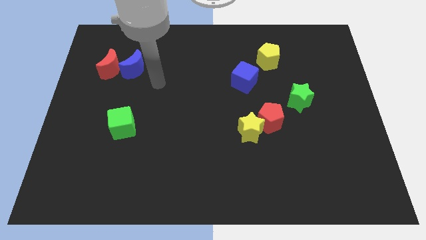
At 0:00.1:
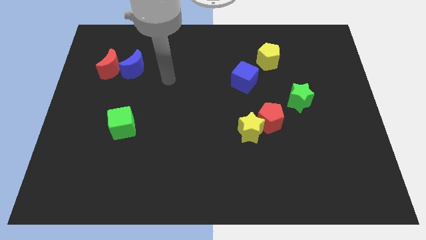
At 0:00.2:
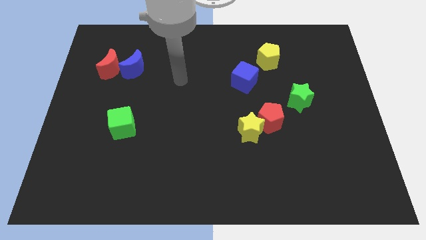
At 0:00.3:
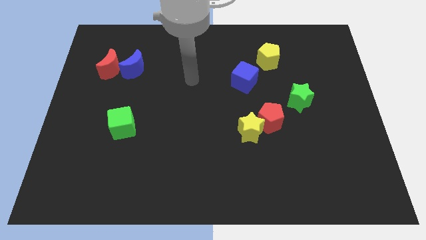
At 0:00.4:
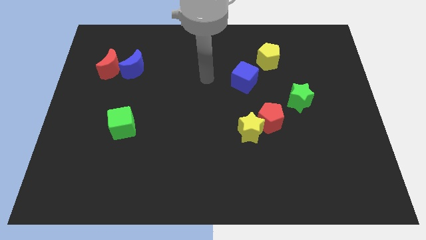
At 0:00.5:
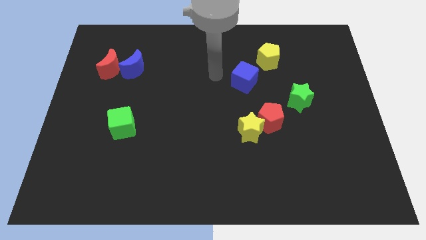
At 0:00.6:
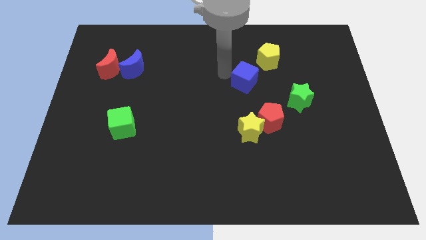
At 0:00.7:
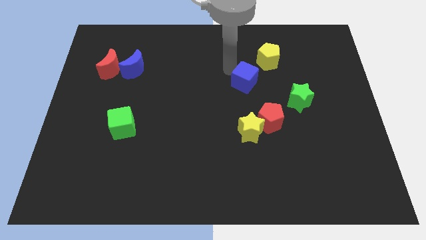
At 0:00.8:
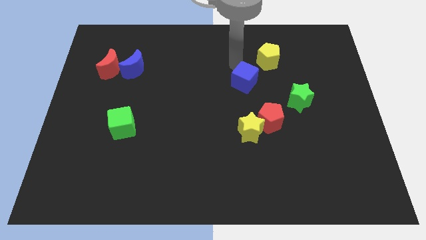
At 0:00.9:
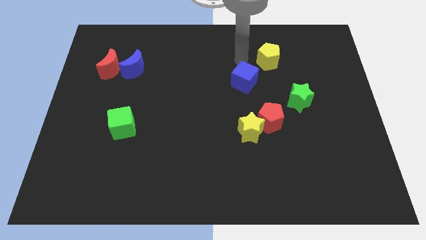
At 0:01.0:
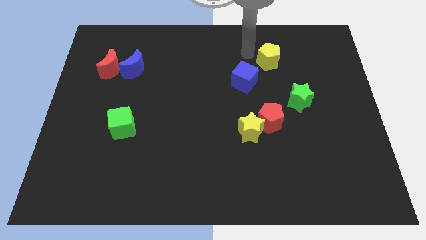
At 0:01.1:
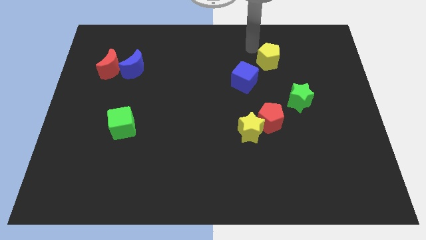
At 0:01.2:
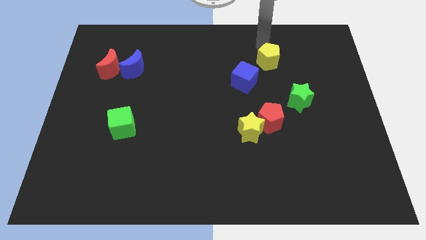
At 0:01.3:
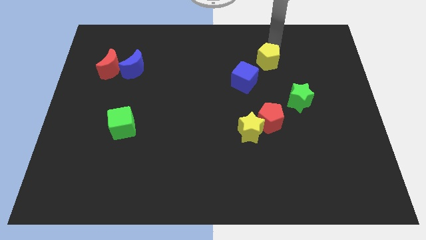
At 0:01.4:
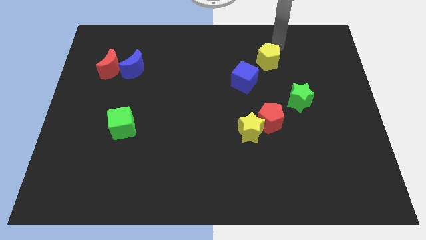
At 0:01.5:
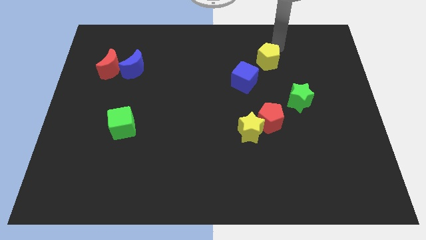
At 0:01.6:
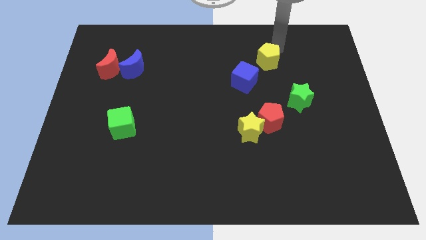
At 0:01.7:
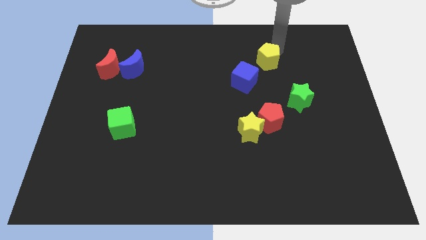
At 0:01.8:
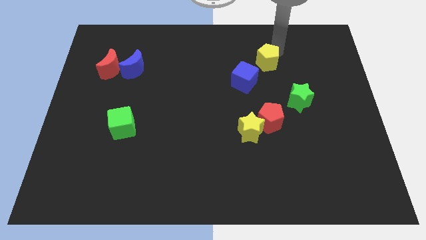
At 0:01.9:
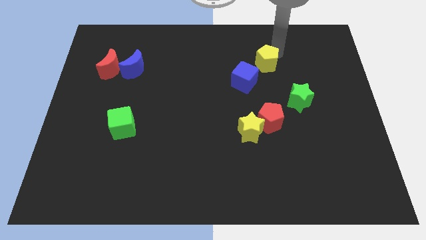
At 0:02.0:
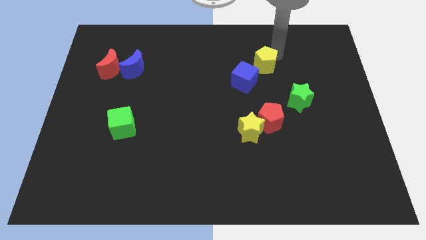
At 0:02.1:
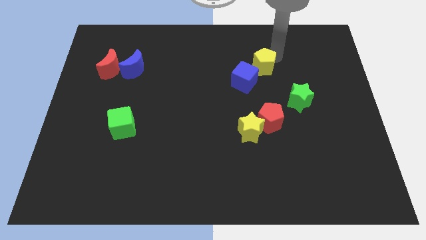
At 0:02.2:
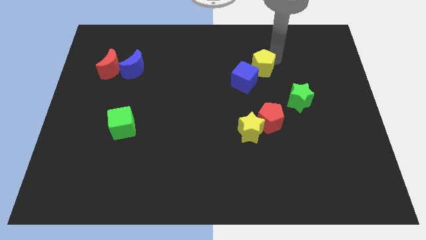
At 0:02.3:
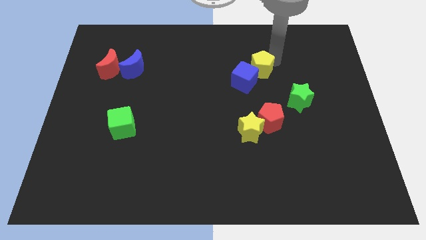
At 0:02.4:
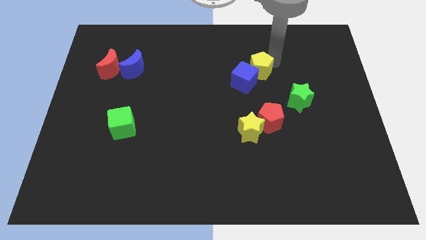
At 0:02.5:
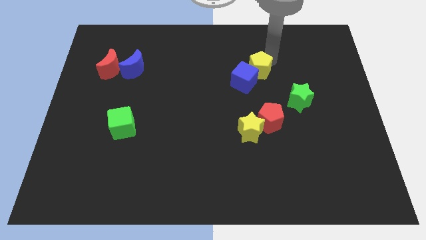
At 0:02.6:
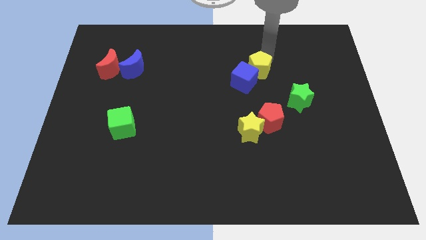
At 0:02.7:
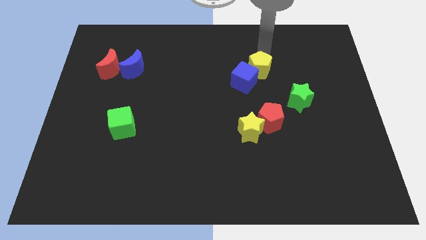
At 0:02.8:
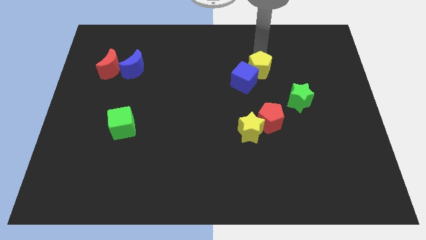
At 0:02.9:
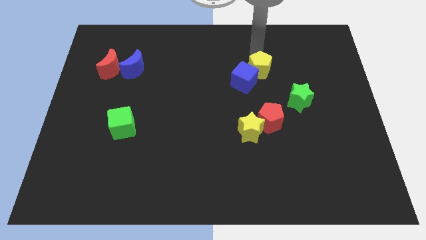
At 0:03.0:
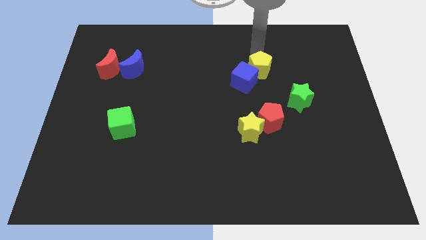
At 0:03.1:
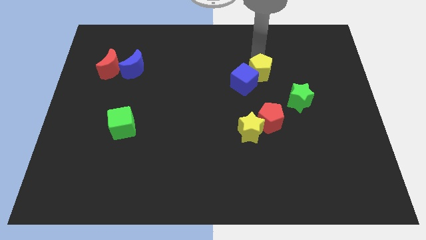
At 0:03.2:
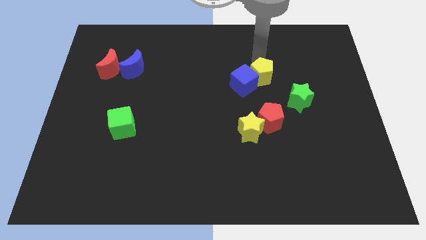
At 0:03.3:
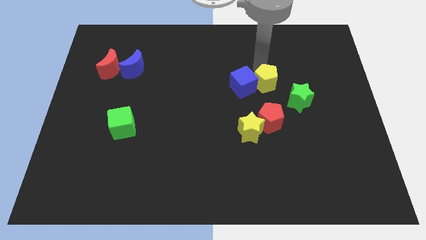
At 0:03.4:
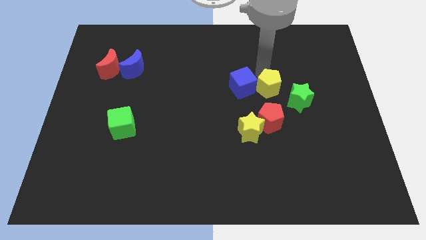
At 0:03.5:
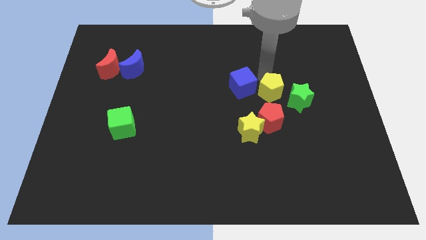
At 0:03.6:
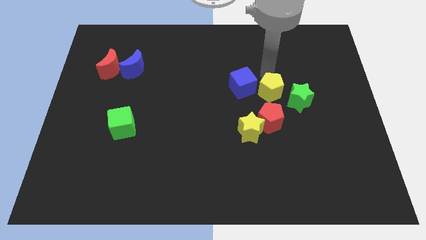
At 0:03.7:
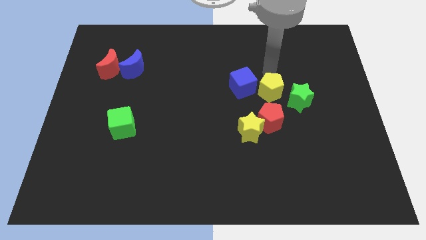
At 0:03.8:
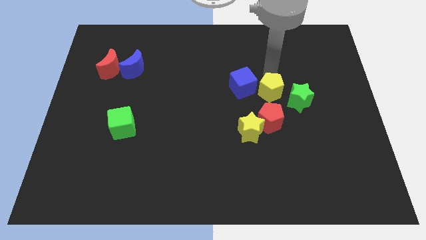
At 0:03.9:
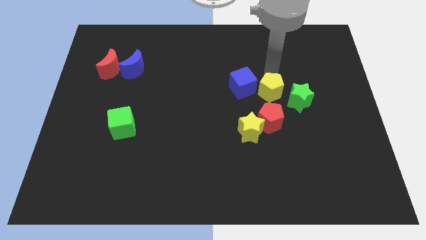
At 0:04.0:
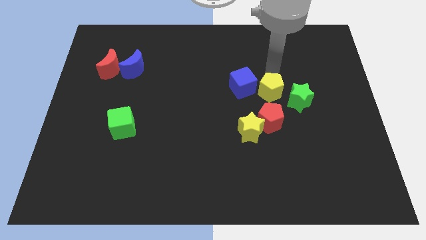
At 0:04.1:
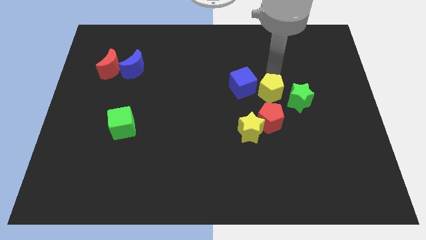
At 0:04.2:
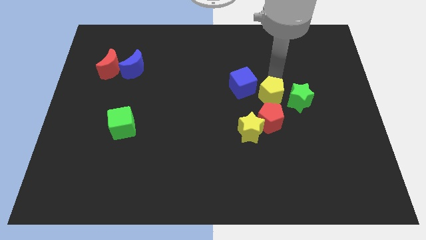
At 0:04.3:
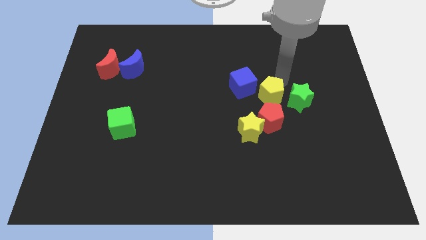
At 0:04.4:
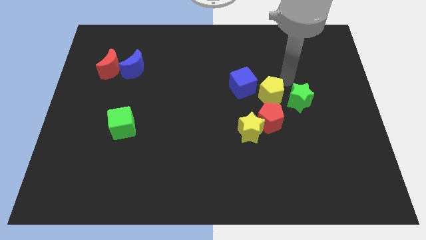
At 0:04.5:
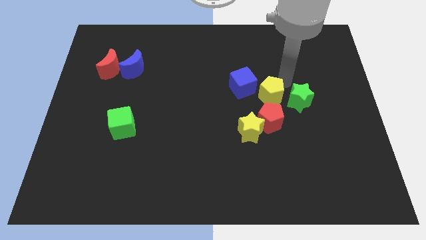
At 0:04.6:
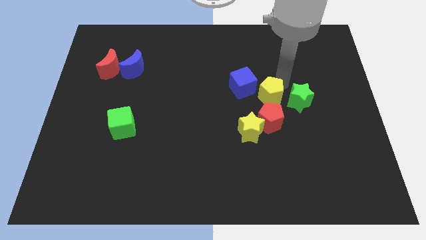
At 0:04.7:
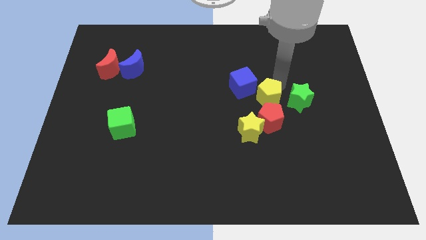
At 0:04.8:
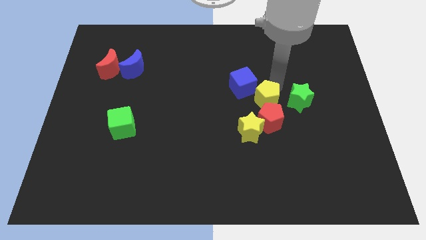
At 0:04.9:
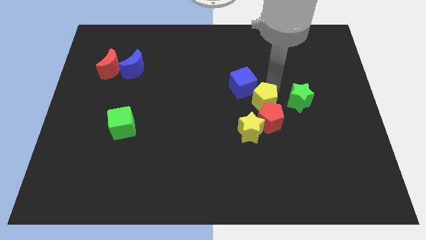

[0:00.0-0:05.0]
put the yellow pentagon to the bottom of the blue cube

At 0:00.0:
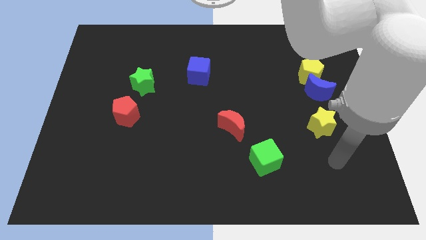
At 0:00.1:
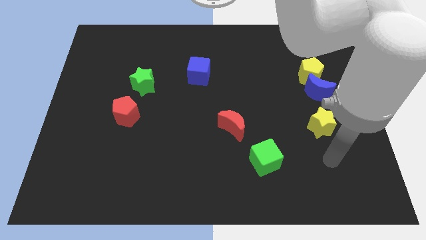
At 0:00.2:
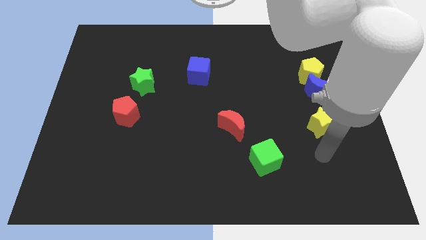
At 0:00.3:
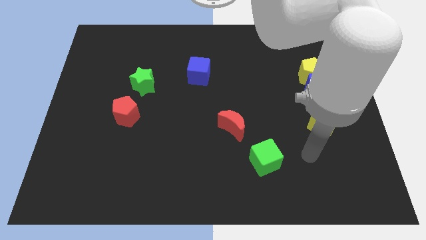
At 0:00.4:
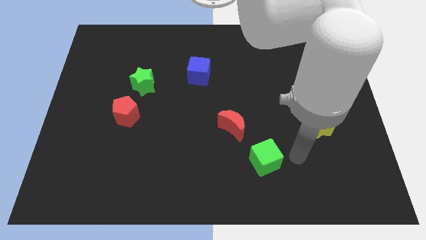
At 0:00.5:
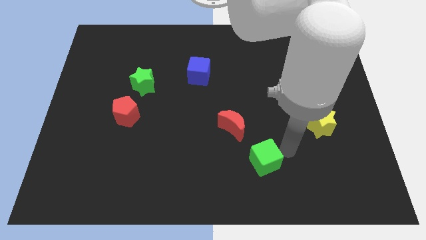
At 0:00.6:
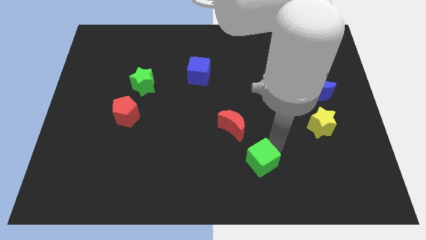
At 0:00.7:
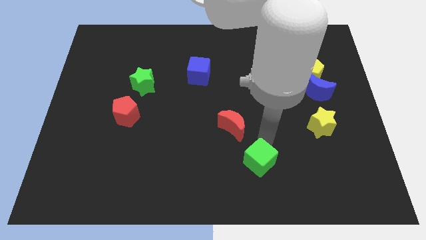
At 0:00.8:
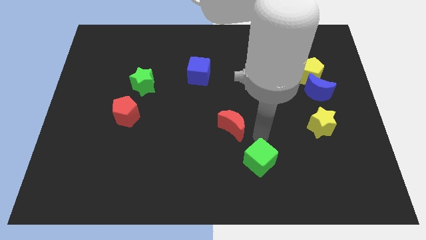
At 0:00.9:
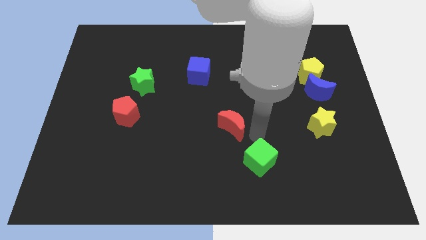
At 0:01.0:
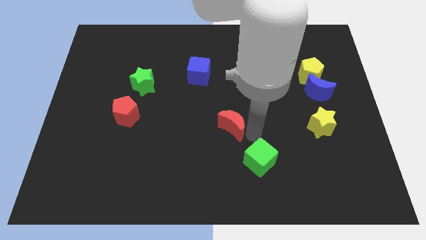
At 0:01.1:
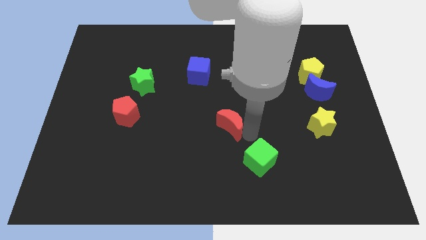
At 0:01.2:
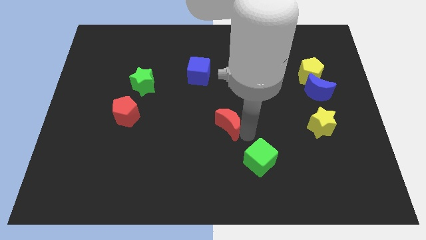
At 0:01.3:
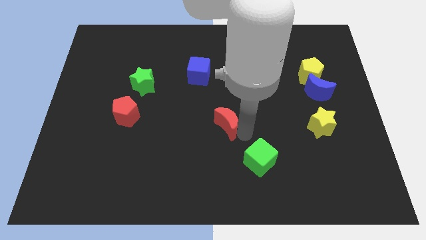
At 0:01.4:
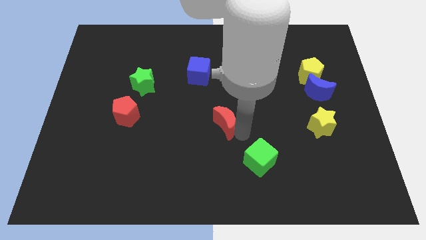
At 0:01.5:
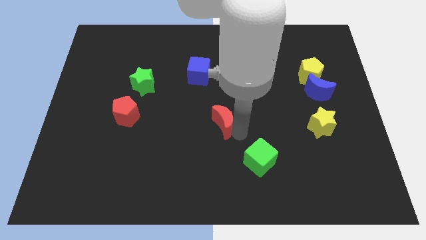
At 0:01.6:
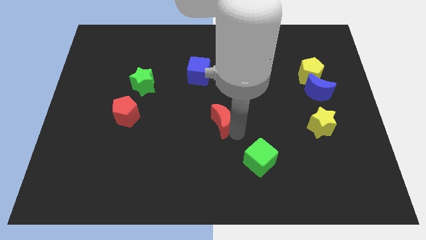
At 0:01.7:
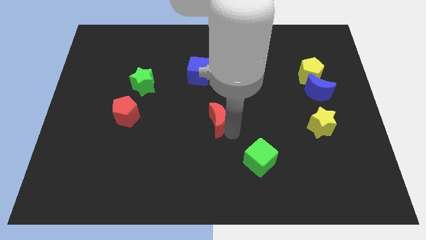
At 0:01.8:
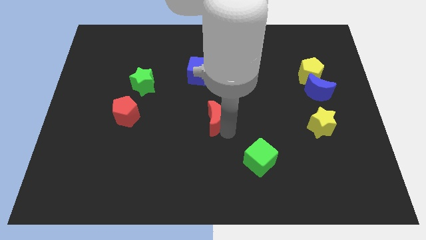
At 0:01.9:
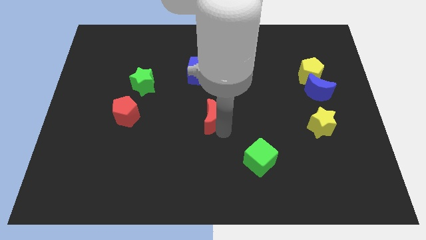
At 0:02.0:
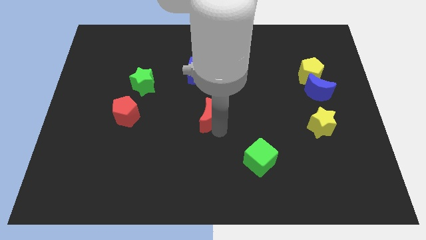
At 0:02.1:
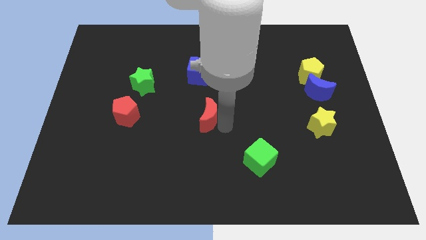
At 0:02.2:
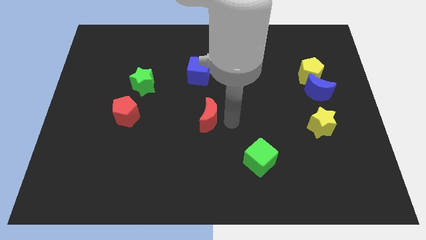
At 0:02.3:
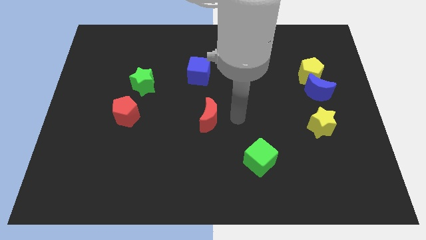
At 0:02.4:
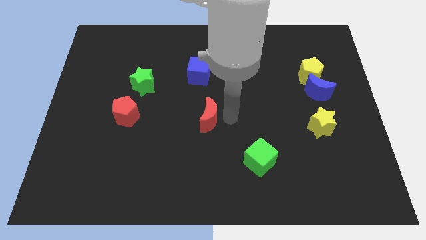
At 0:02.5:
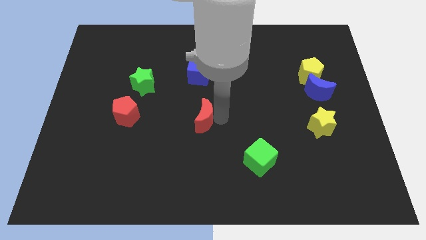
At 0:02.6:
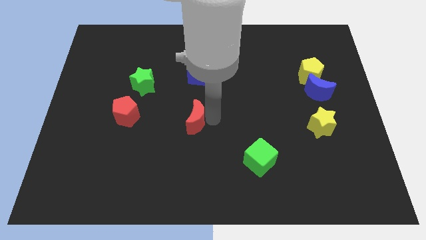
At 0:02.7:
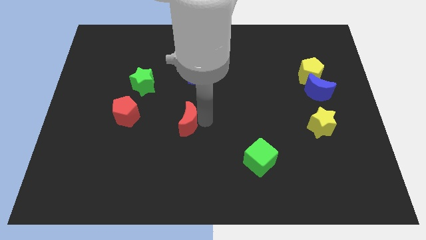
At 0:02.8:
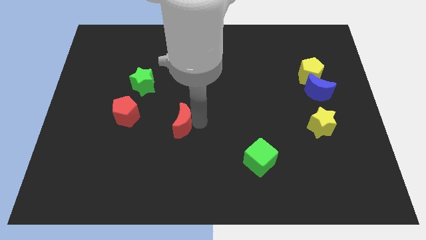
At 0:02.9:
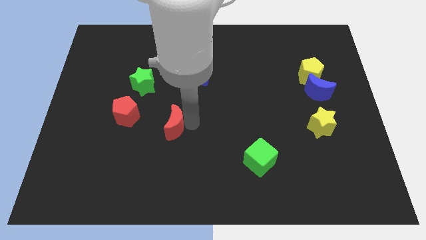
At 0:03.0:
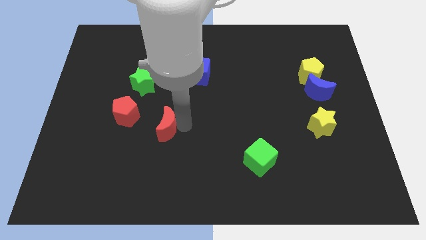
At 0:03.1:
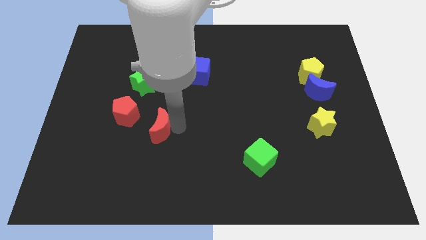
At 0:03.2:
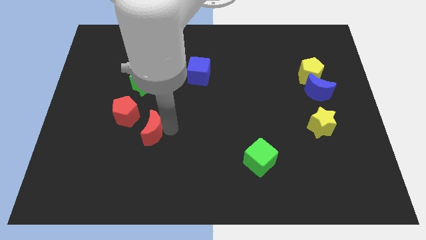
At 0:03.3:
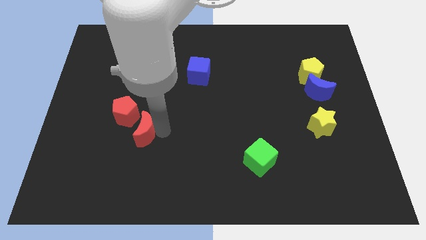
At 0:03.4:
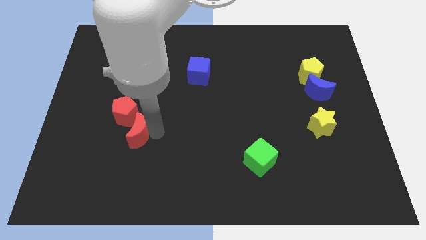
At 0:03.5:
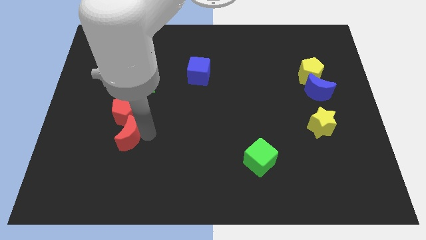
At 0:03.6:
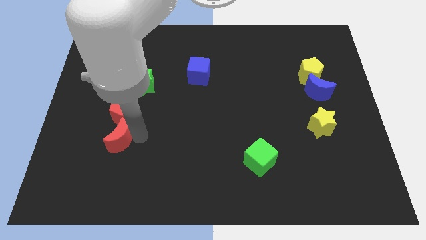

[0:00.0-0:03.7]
push the red moon to the bottom left side of the red pentagon
